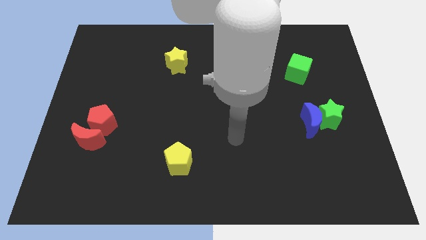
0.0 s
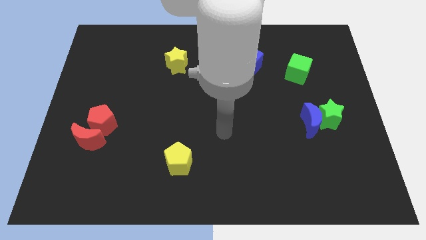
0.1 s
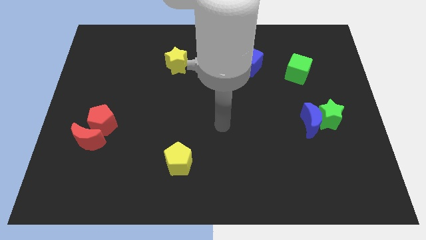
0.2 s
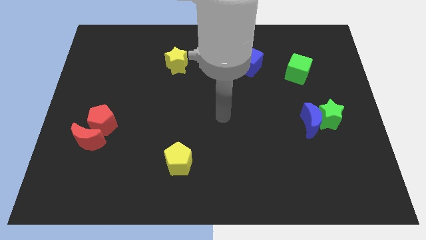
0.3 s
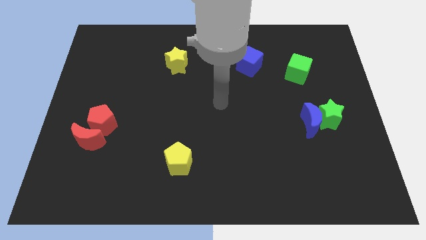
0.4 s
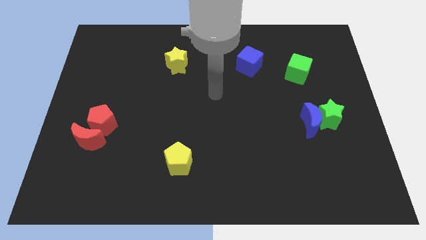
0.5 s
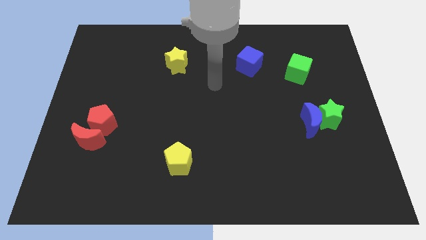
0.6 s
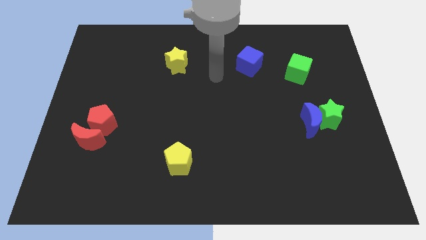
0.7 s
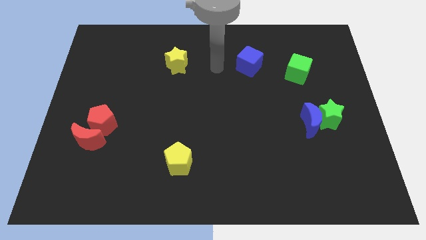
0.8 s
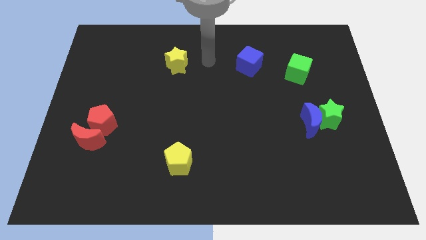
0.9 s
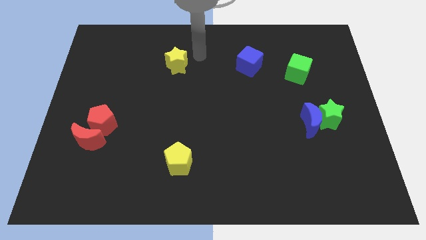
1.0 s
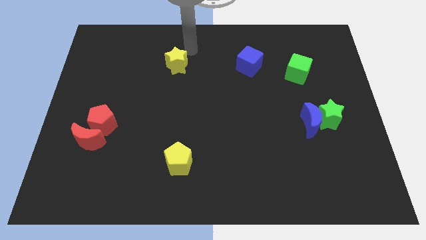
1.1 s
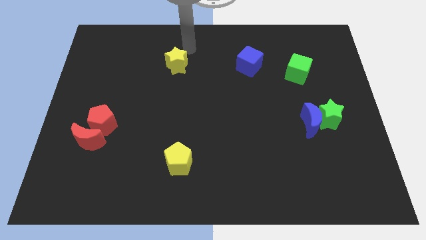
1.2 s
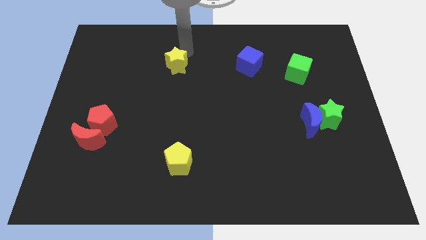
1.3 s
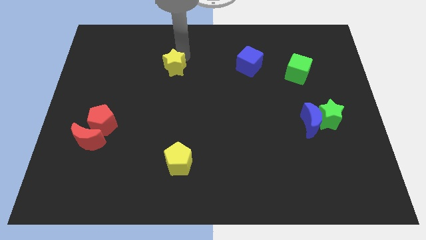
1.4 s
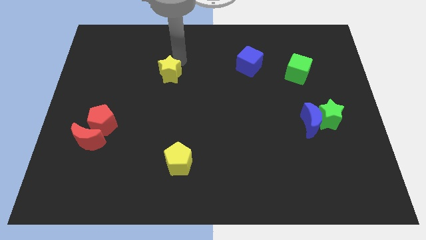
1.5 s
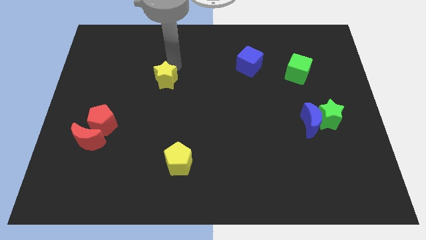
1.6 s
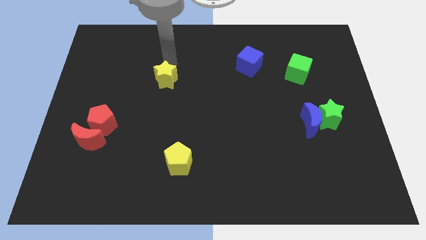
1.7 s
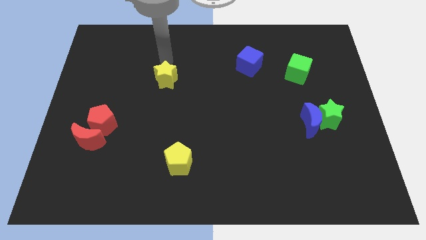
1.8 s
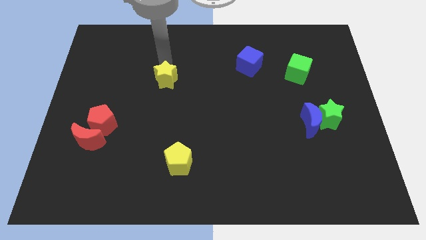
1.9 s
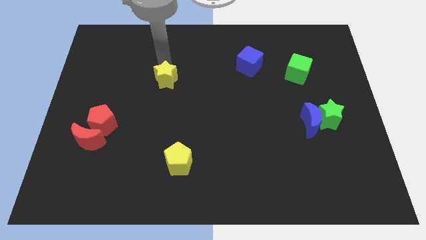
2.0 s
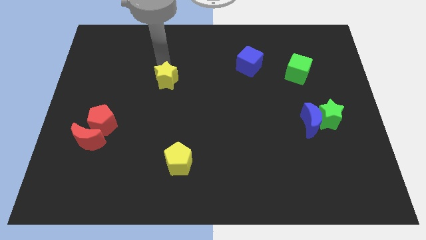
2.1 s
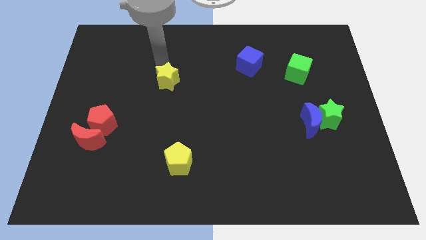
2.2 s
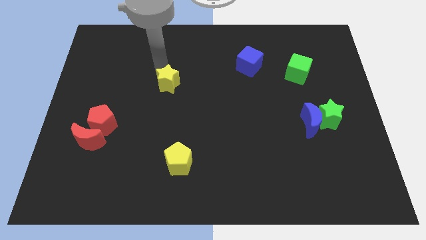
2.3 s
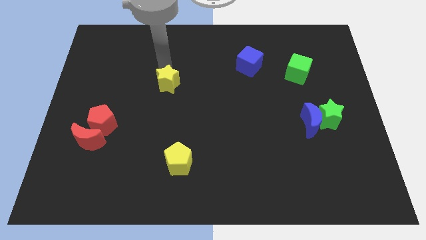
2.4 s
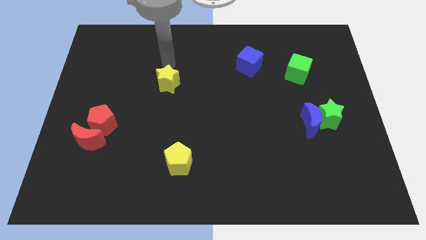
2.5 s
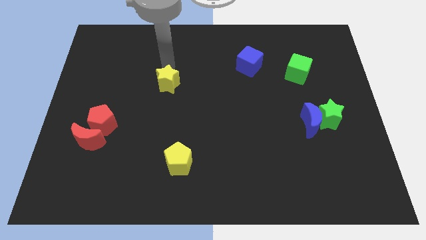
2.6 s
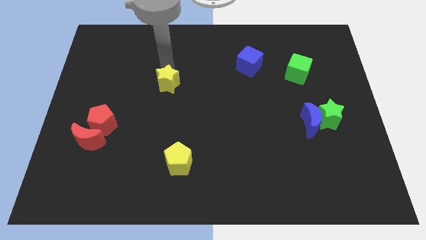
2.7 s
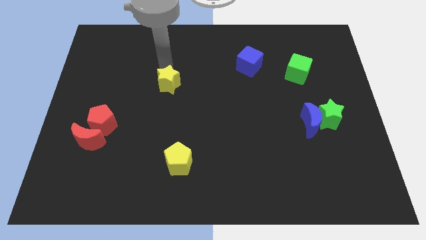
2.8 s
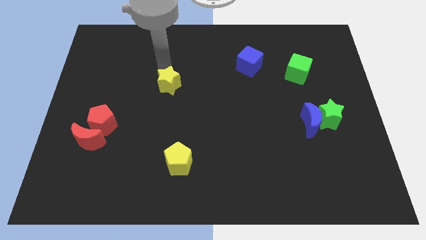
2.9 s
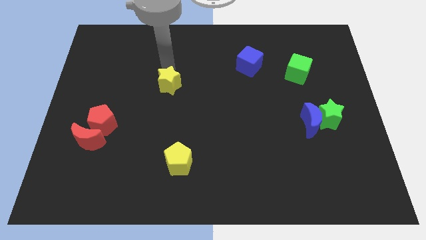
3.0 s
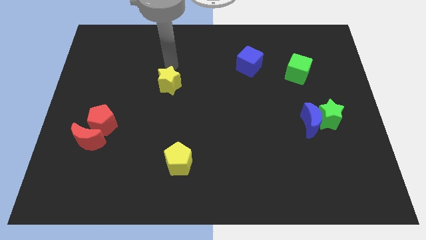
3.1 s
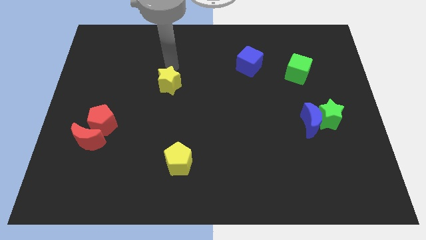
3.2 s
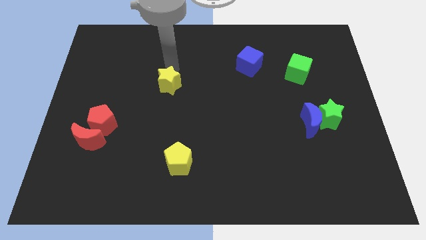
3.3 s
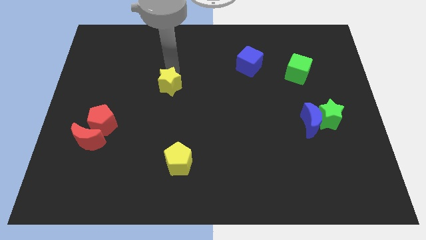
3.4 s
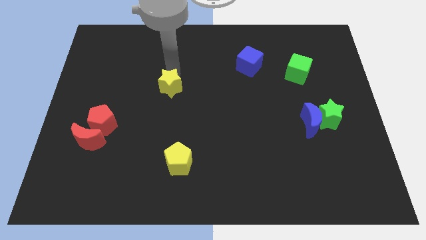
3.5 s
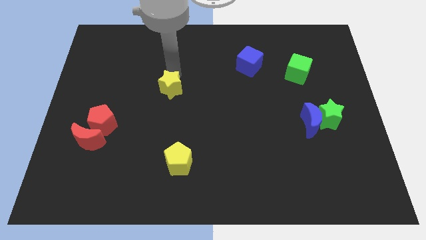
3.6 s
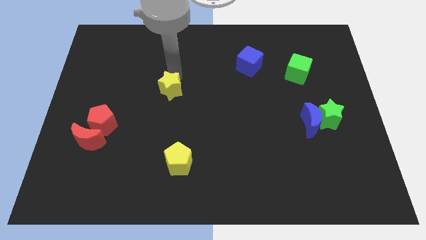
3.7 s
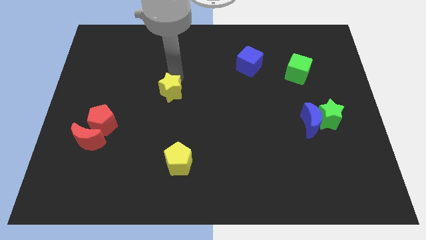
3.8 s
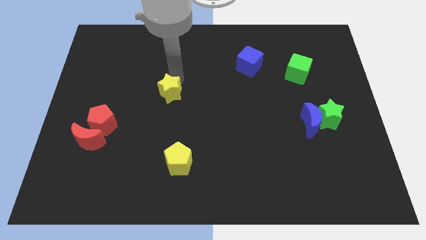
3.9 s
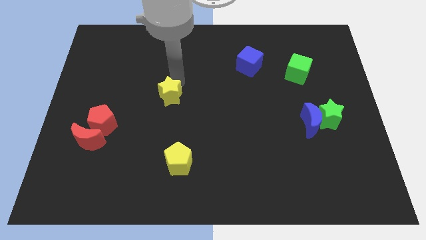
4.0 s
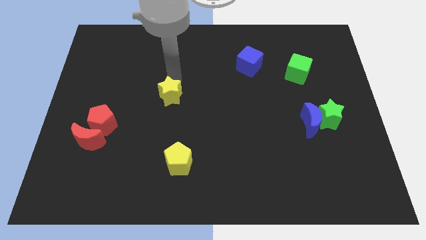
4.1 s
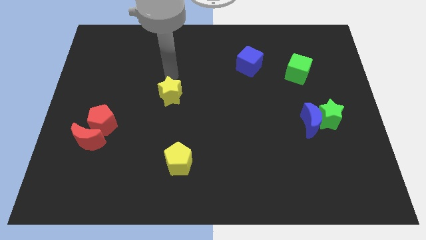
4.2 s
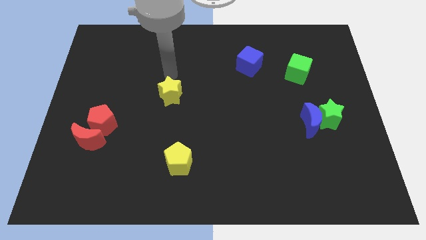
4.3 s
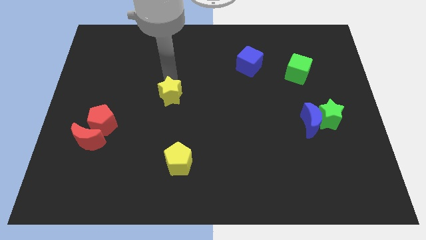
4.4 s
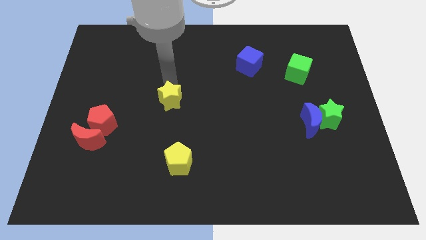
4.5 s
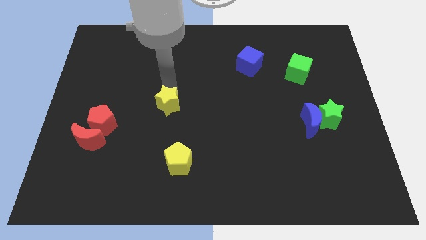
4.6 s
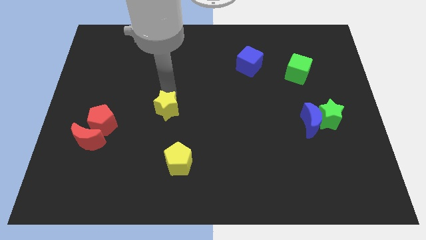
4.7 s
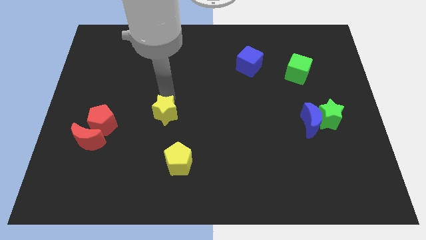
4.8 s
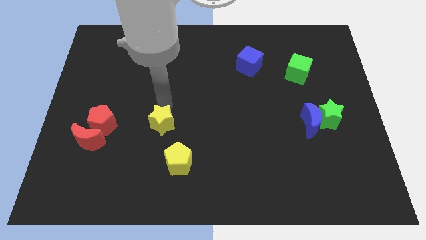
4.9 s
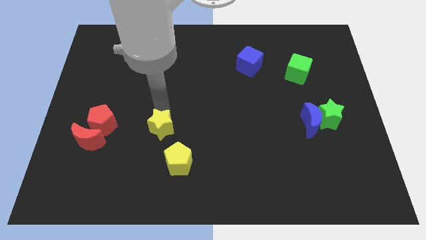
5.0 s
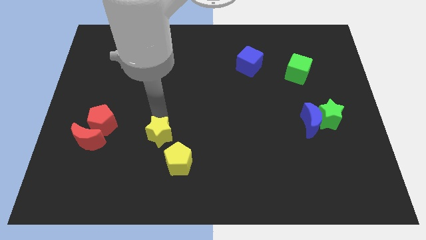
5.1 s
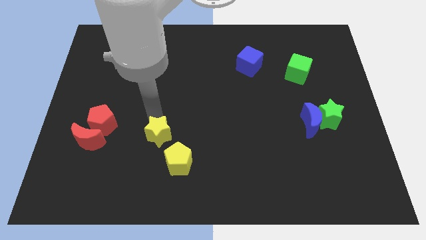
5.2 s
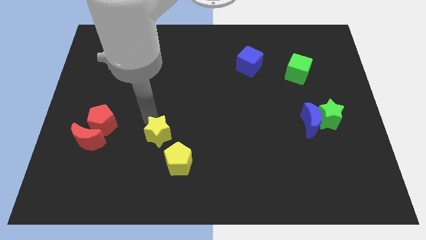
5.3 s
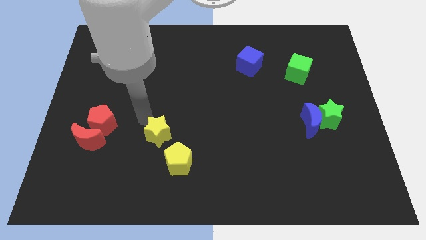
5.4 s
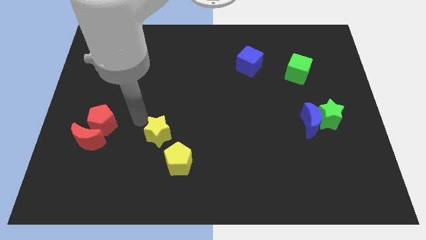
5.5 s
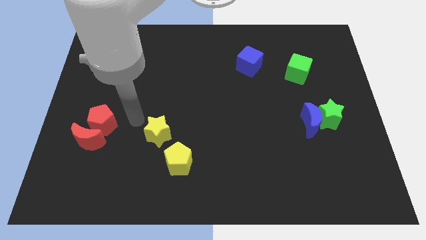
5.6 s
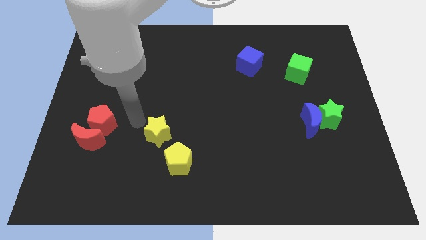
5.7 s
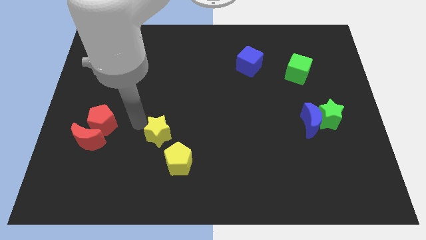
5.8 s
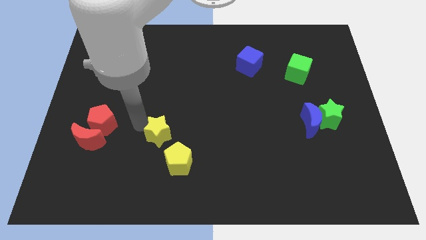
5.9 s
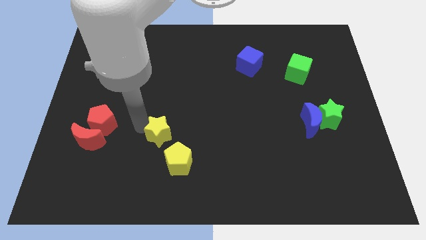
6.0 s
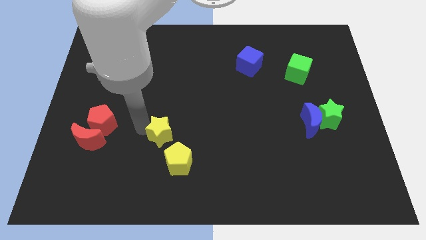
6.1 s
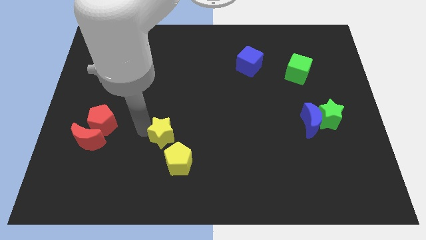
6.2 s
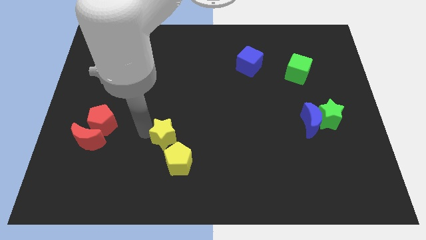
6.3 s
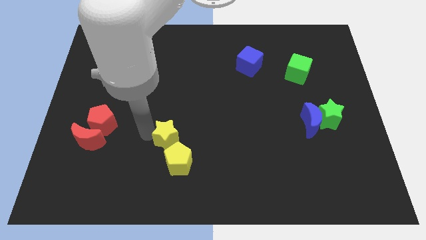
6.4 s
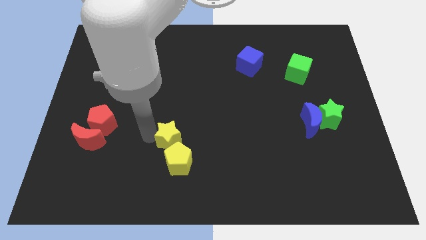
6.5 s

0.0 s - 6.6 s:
move the yellow star next to the yellow pentagon
